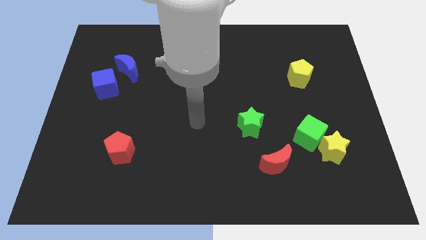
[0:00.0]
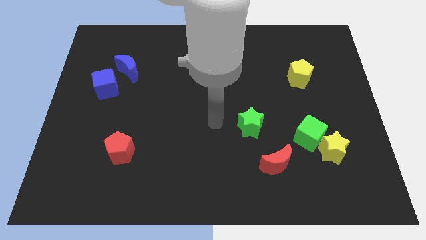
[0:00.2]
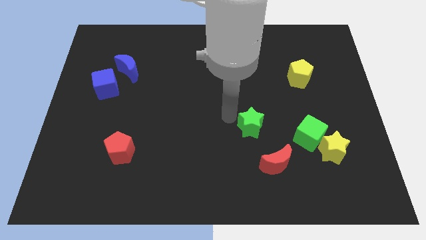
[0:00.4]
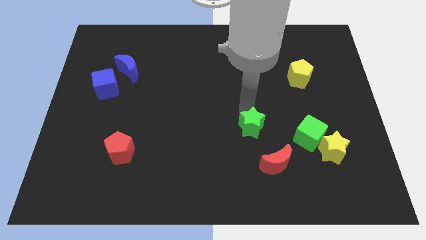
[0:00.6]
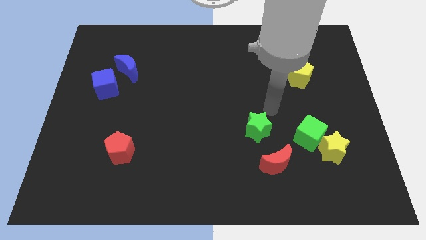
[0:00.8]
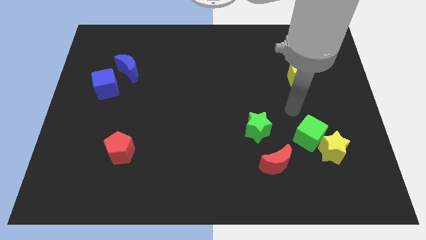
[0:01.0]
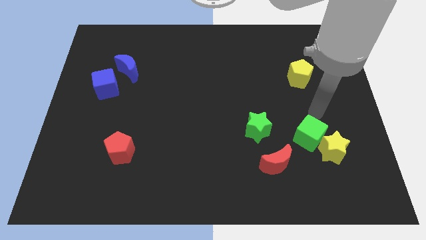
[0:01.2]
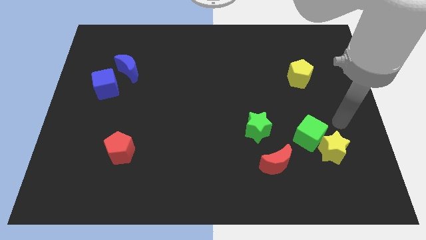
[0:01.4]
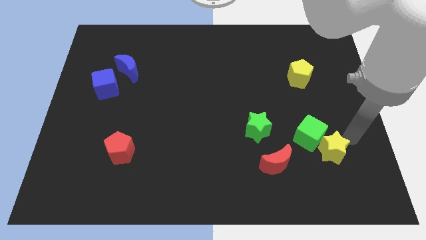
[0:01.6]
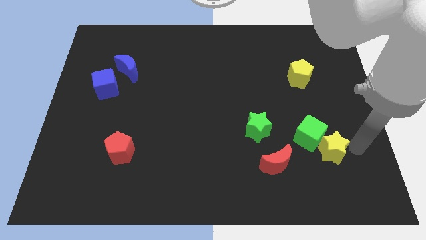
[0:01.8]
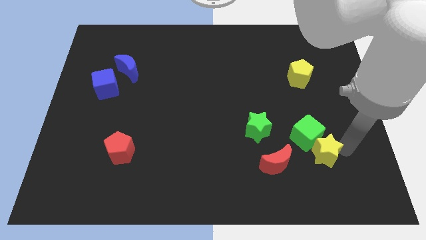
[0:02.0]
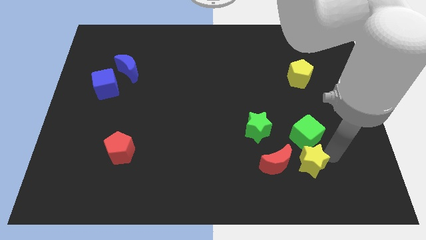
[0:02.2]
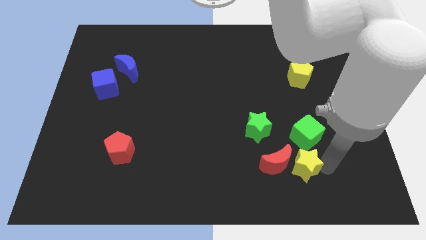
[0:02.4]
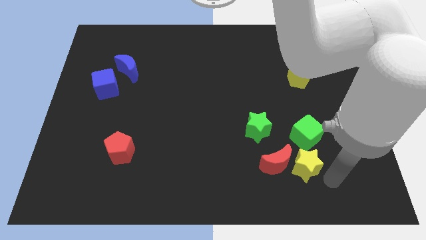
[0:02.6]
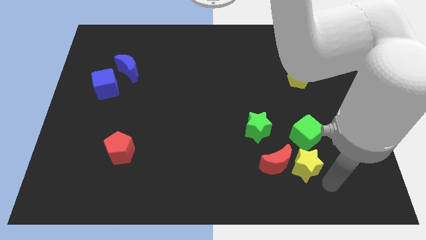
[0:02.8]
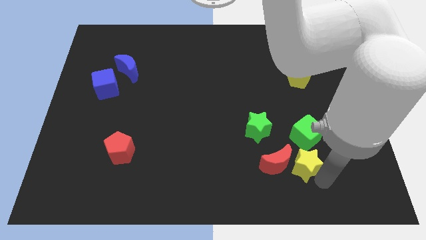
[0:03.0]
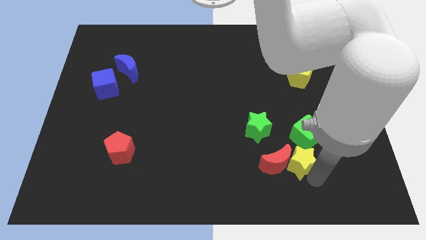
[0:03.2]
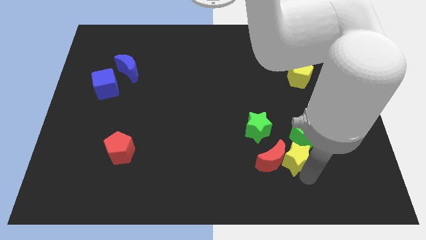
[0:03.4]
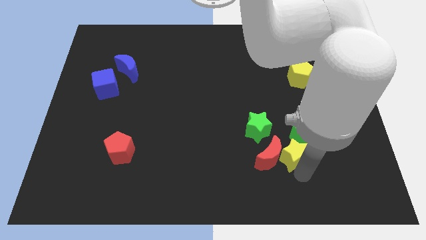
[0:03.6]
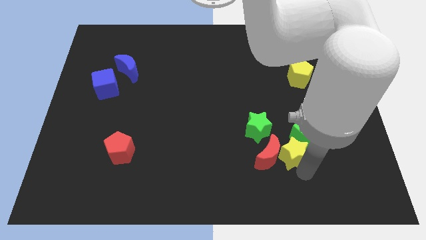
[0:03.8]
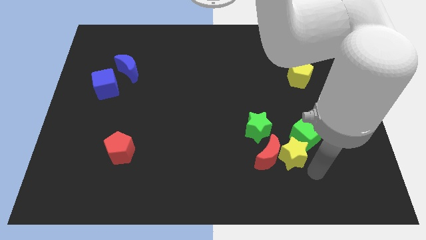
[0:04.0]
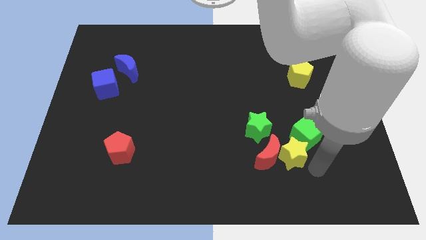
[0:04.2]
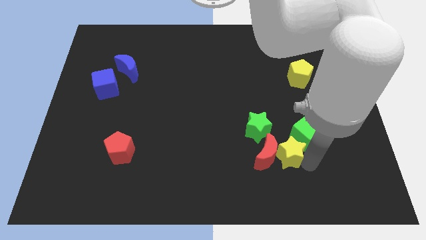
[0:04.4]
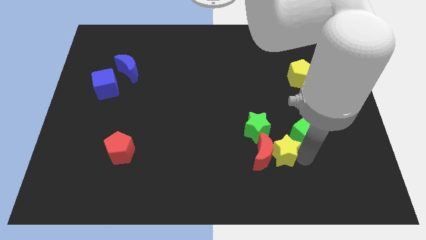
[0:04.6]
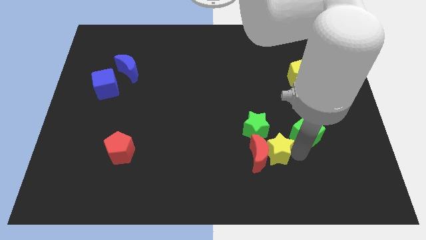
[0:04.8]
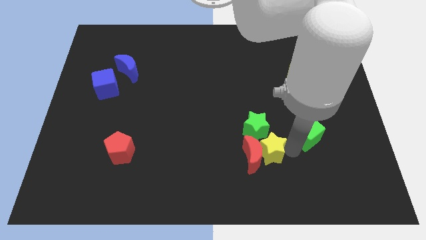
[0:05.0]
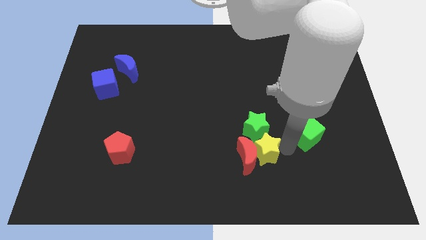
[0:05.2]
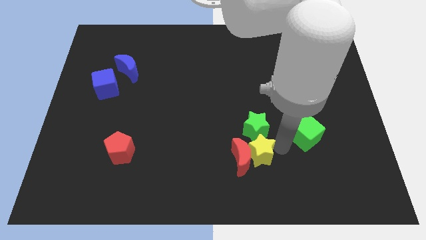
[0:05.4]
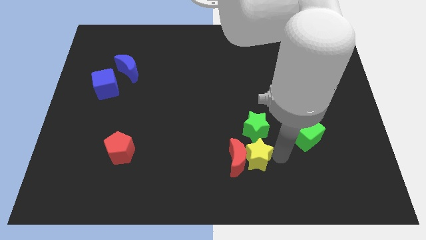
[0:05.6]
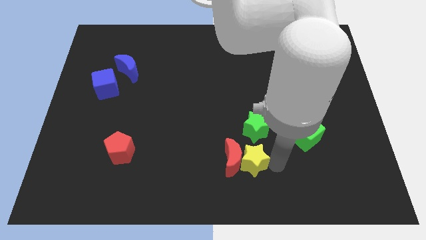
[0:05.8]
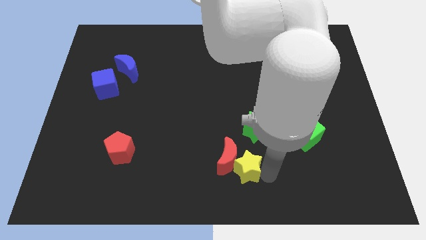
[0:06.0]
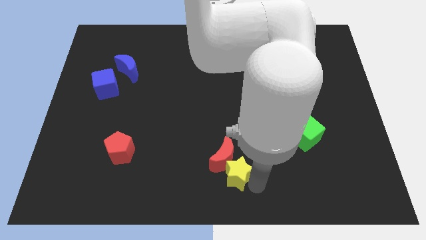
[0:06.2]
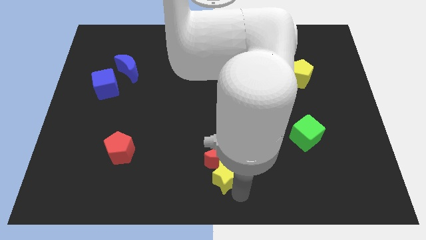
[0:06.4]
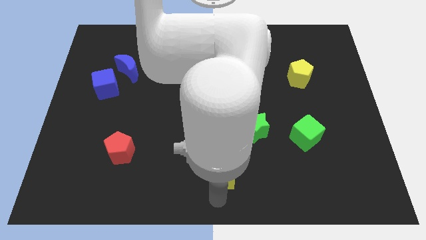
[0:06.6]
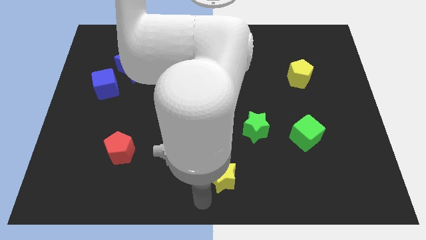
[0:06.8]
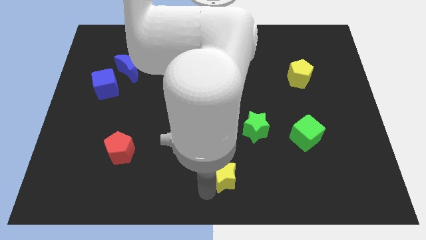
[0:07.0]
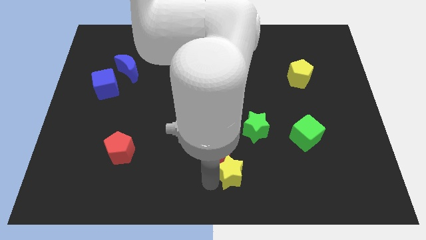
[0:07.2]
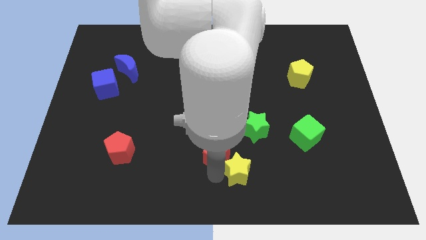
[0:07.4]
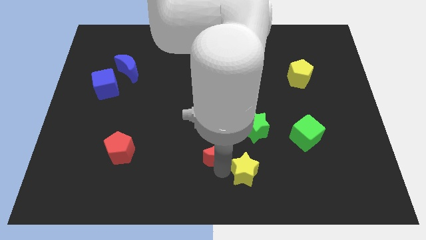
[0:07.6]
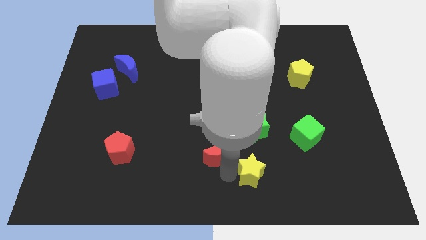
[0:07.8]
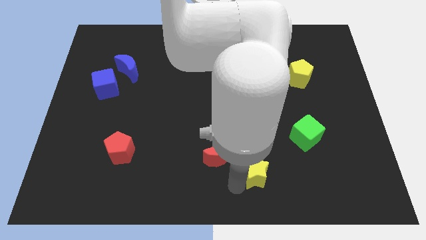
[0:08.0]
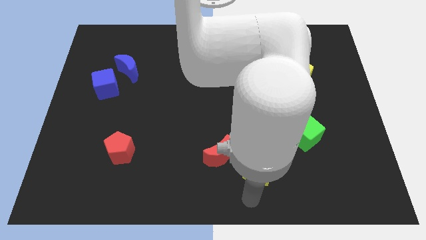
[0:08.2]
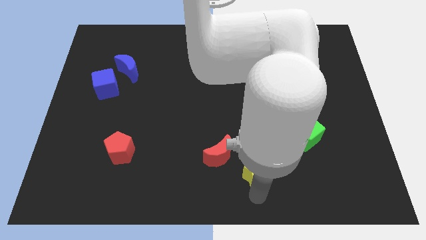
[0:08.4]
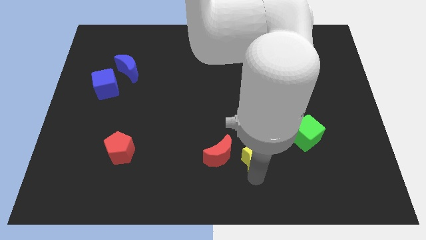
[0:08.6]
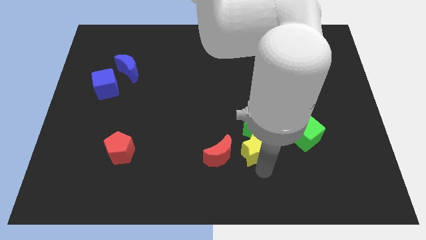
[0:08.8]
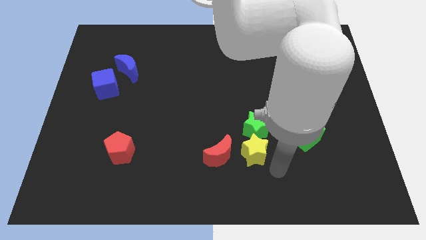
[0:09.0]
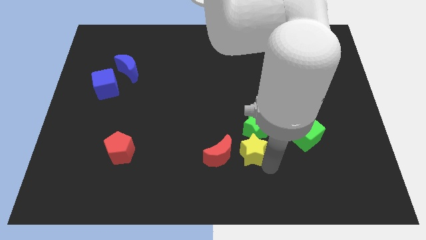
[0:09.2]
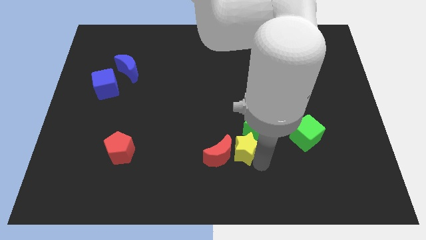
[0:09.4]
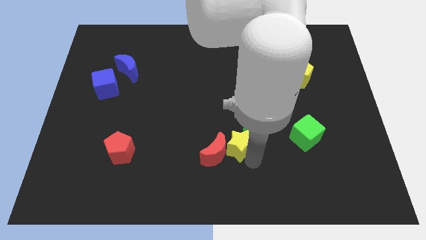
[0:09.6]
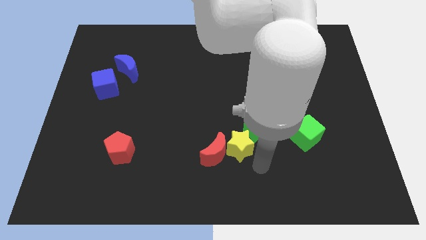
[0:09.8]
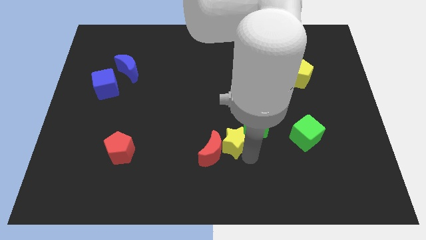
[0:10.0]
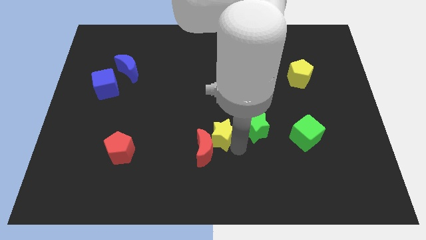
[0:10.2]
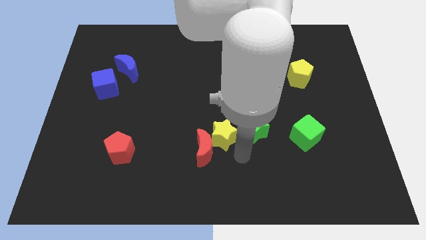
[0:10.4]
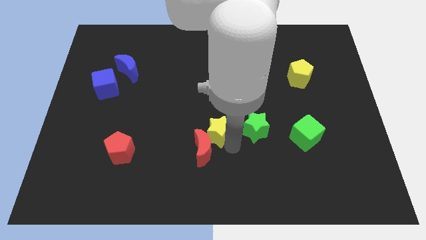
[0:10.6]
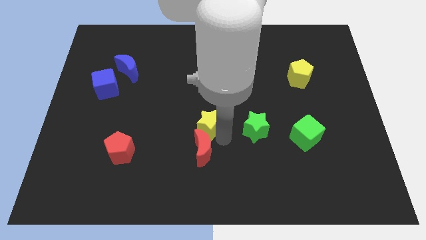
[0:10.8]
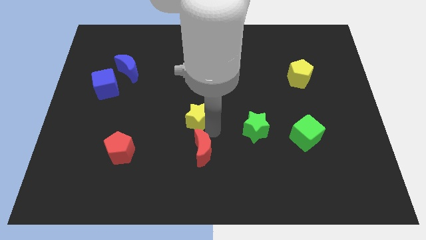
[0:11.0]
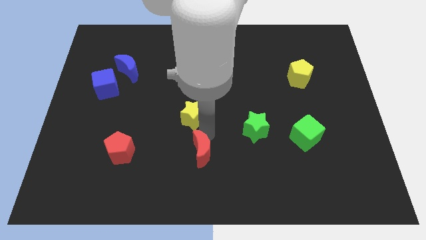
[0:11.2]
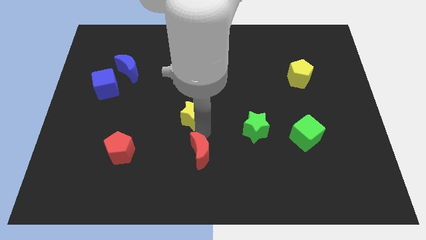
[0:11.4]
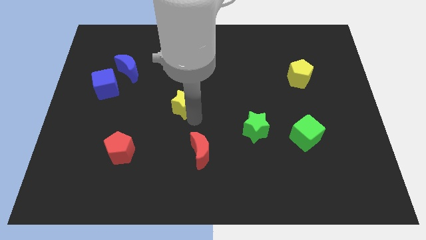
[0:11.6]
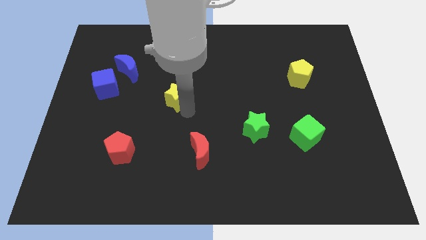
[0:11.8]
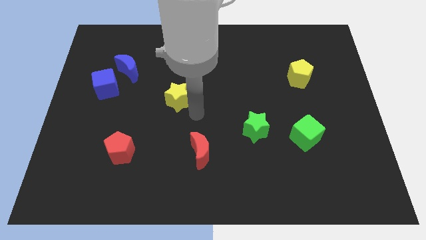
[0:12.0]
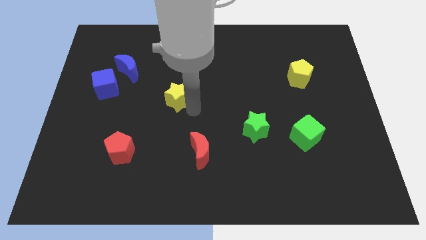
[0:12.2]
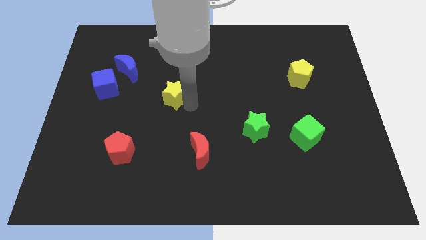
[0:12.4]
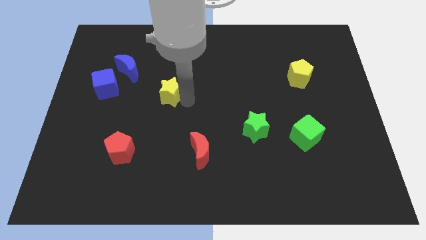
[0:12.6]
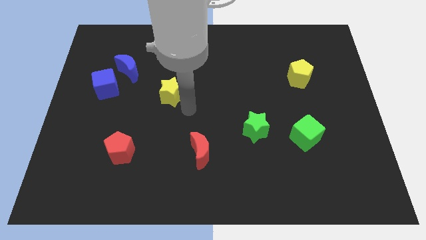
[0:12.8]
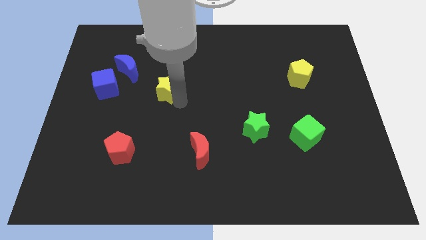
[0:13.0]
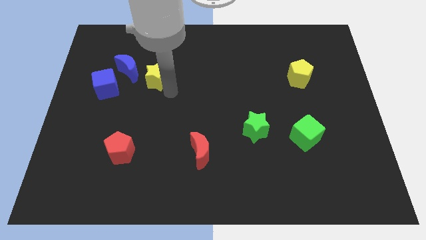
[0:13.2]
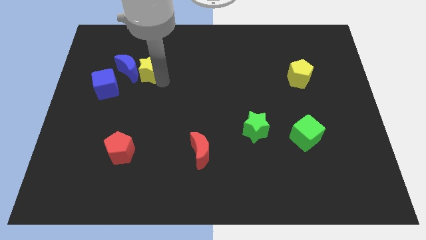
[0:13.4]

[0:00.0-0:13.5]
slide the yellow star close to the blue moon
